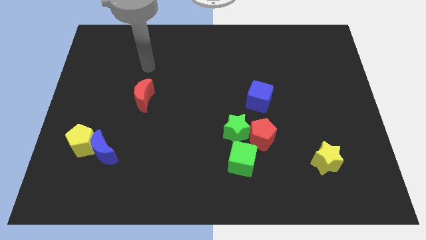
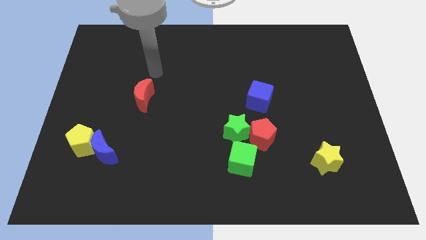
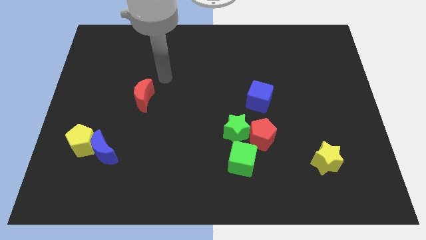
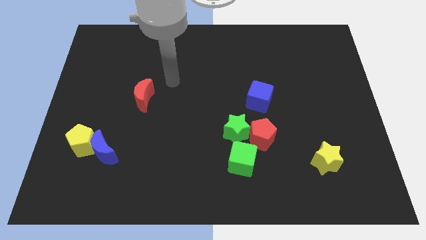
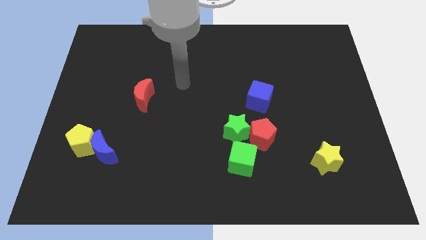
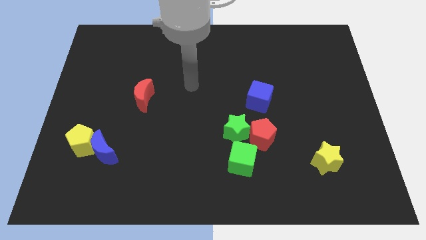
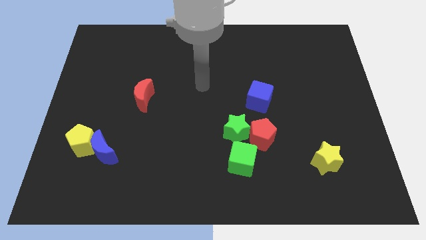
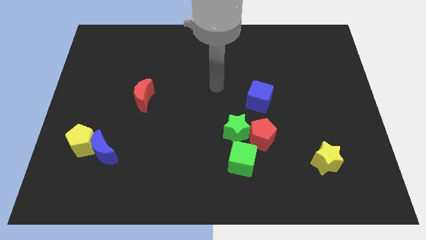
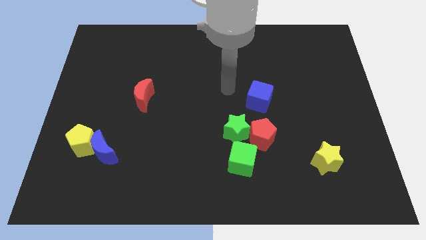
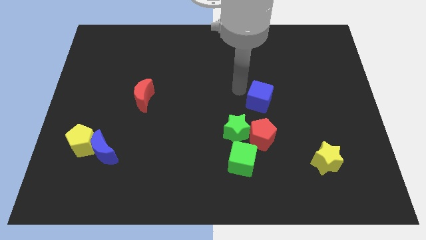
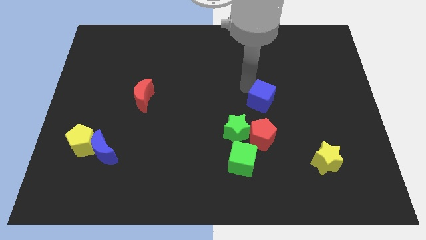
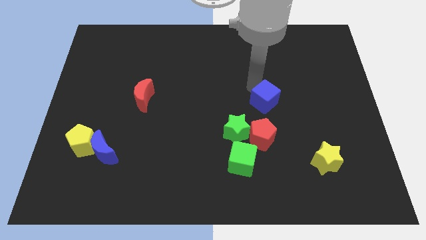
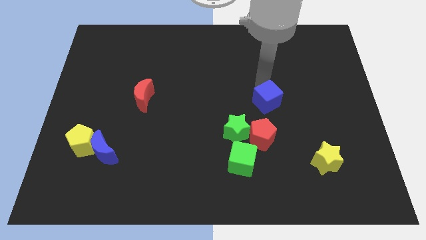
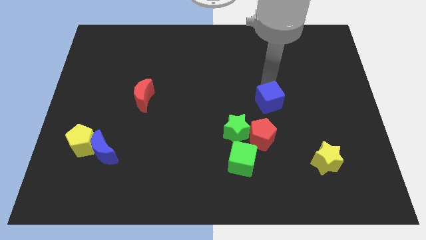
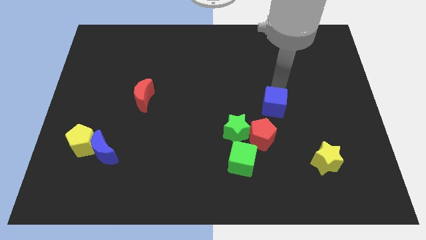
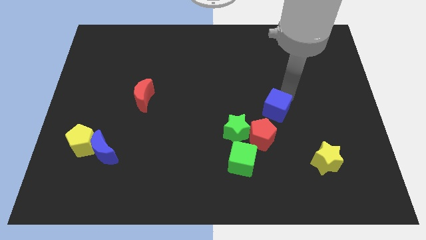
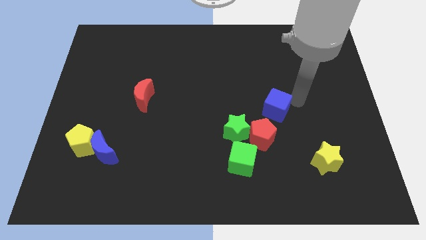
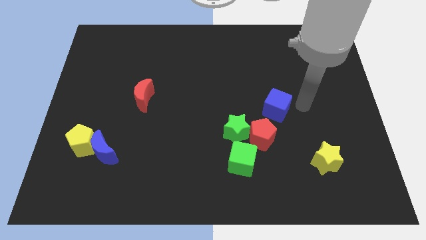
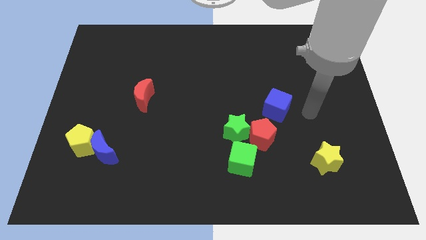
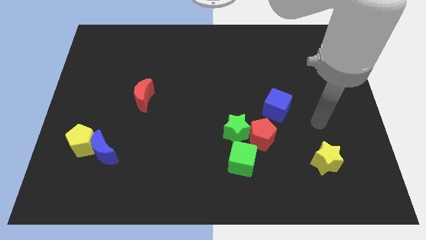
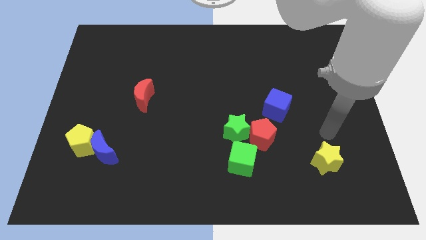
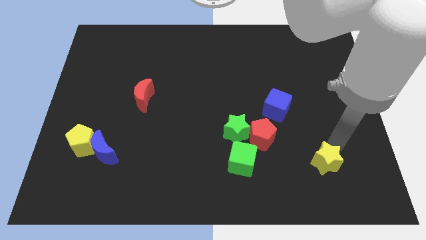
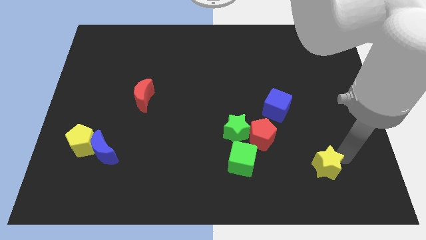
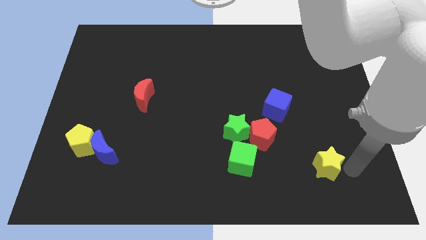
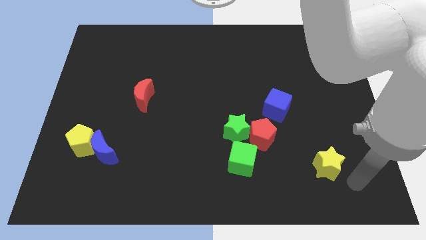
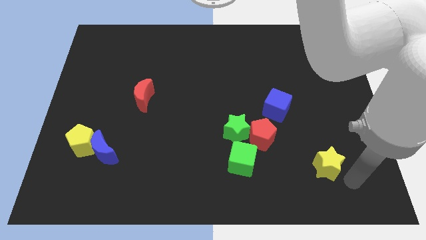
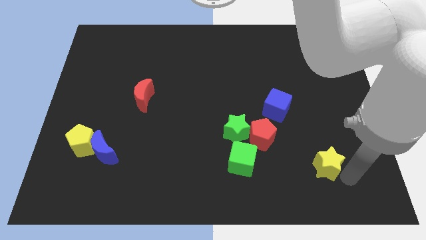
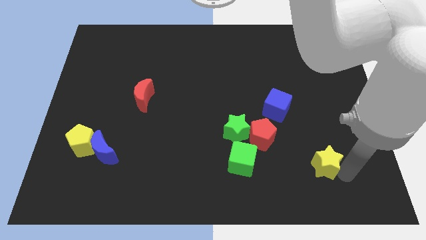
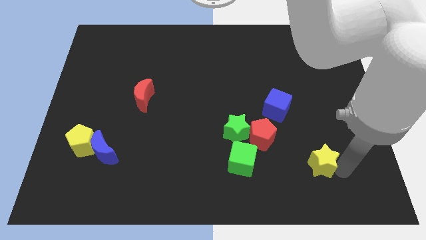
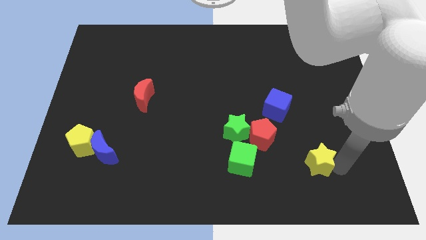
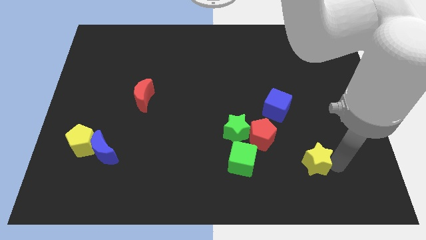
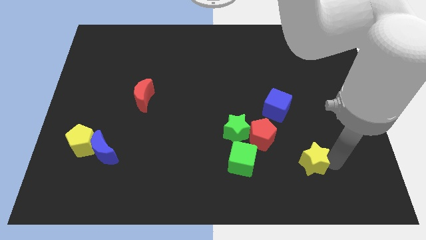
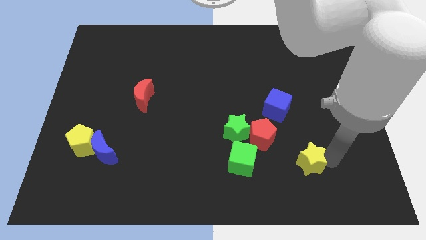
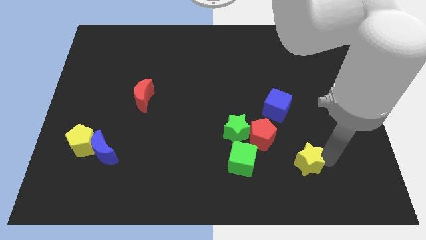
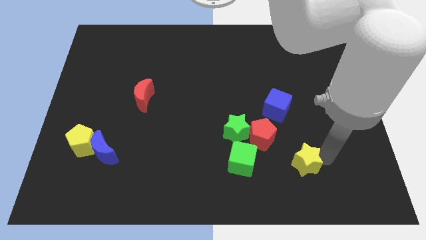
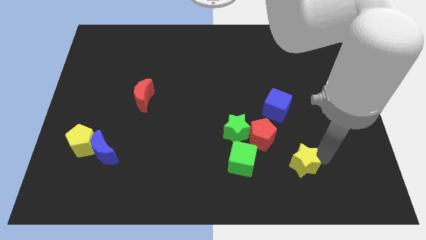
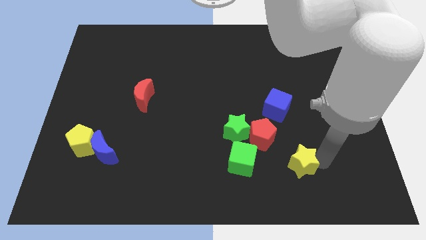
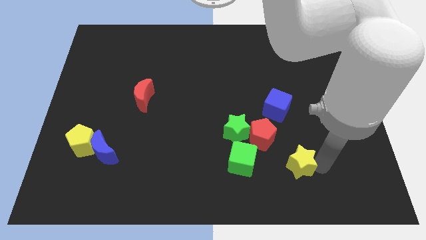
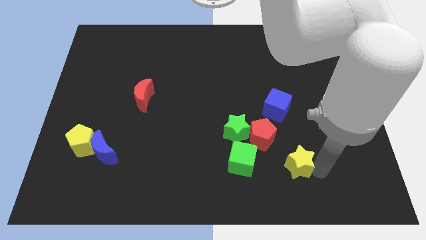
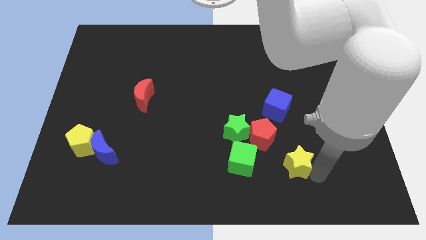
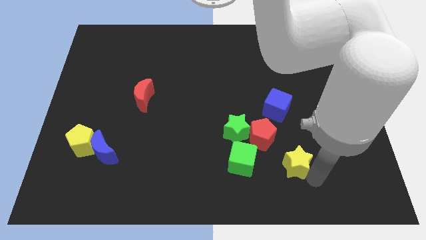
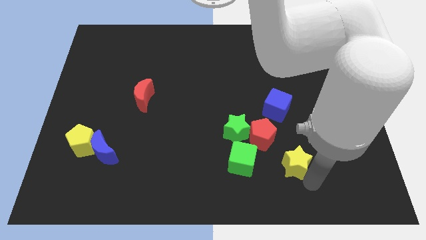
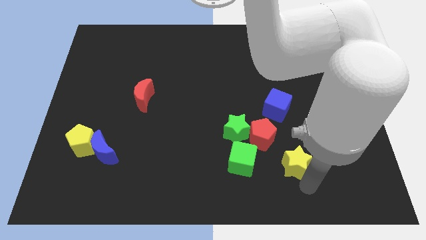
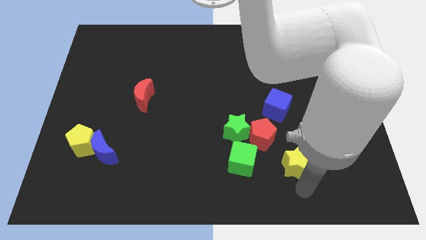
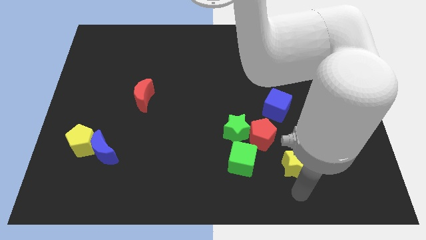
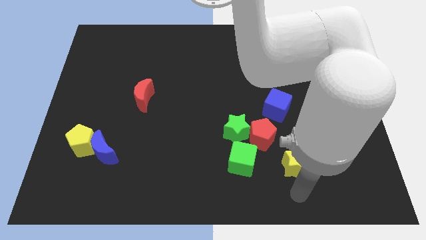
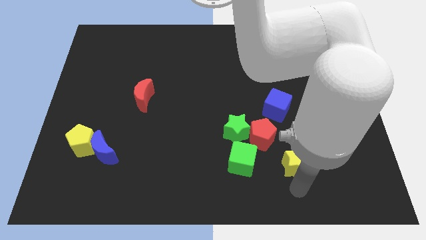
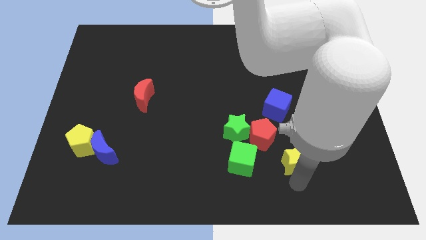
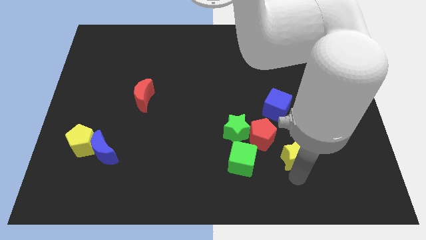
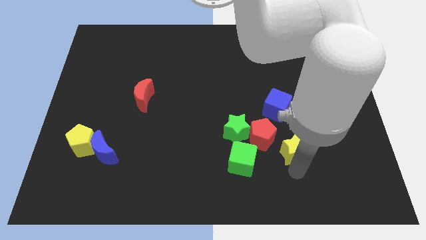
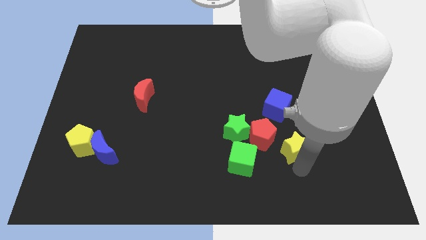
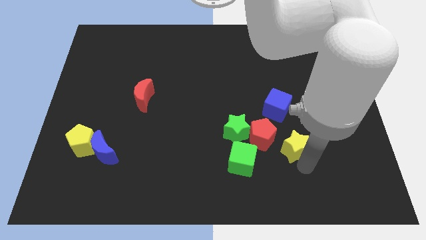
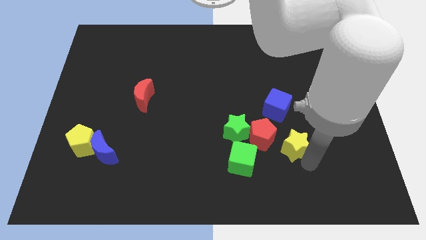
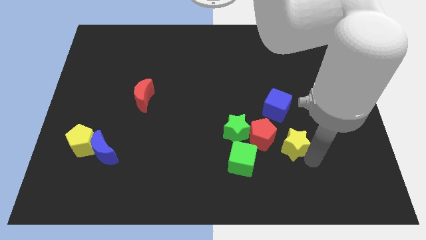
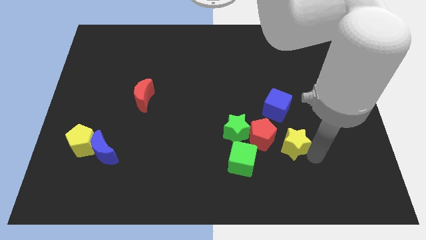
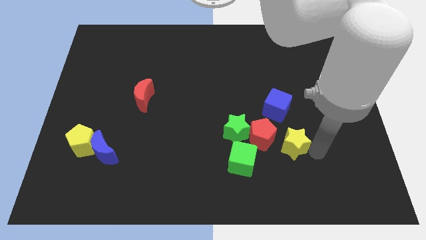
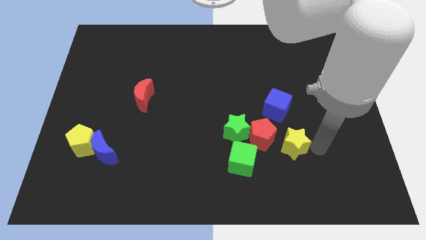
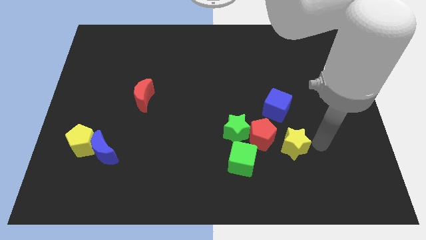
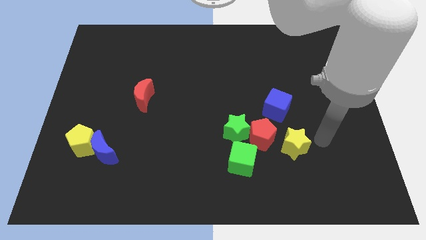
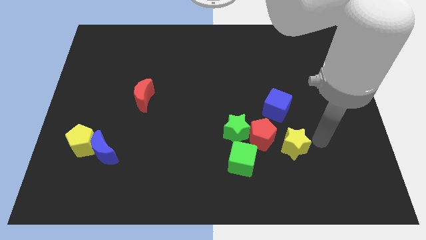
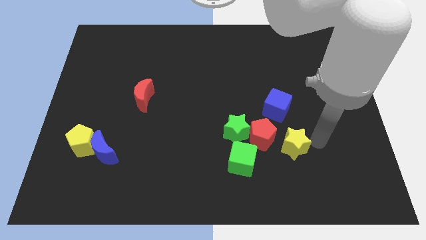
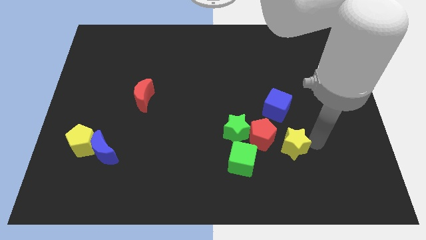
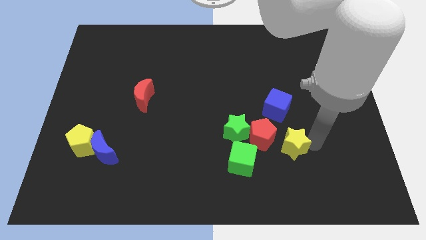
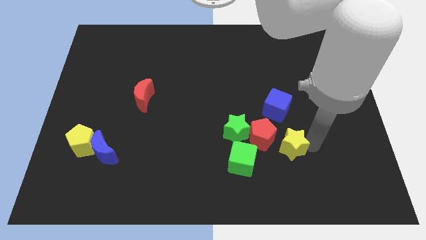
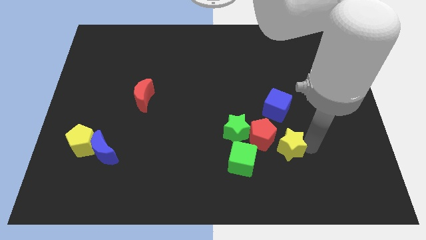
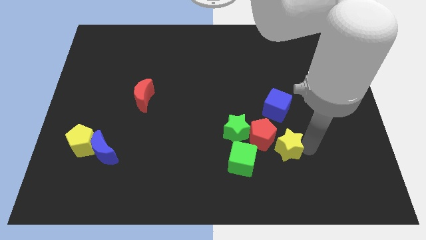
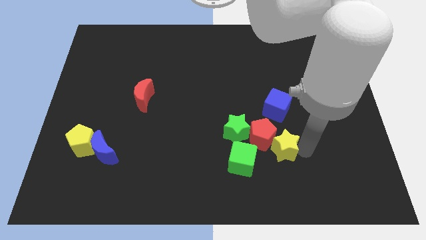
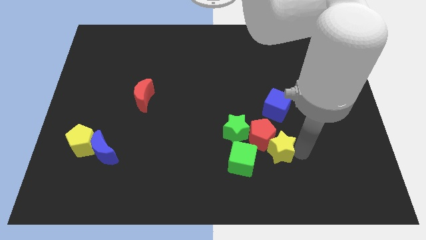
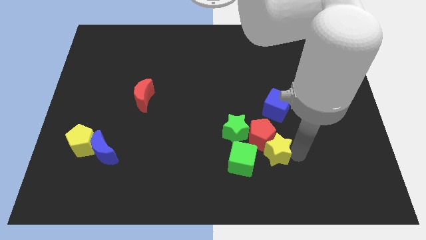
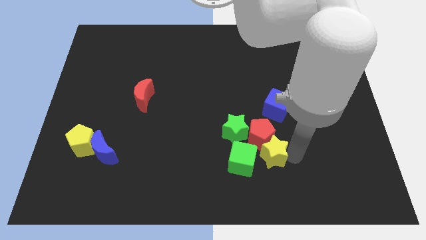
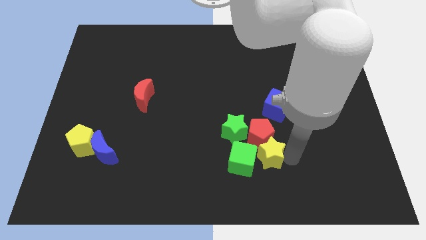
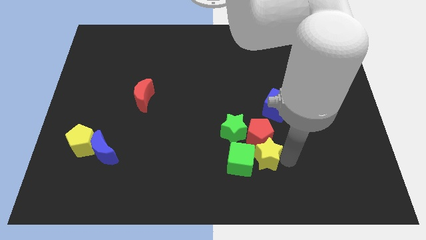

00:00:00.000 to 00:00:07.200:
slide the yellow star close to the green cube
